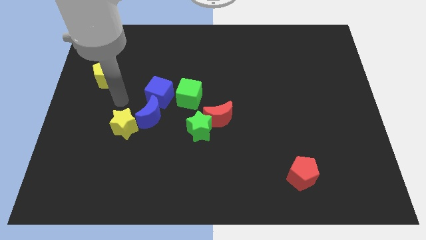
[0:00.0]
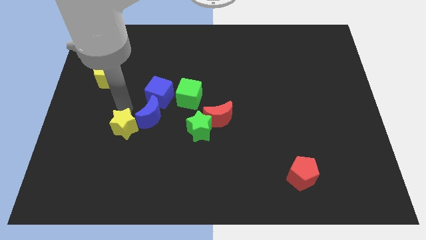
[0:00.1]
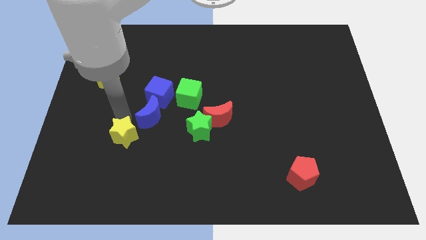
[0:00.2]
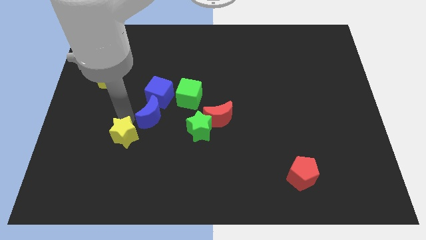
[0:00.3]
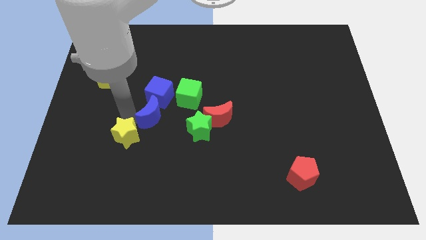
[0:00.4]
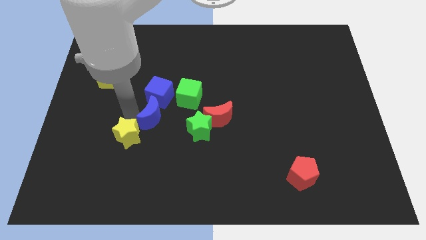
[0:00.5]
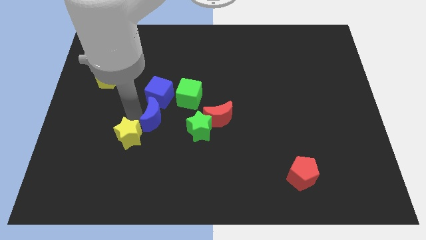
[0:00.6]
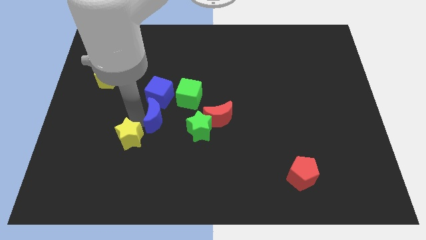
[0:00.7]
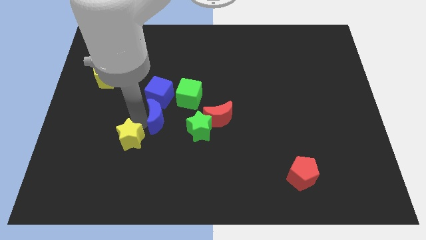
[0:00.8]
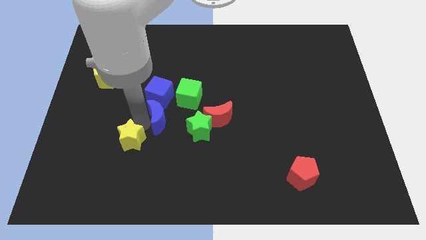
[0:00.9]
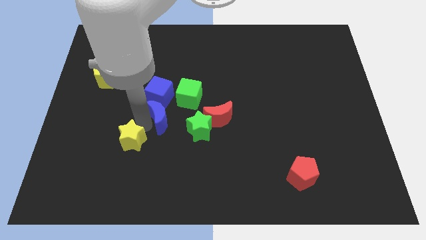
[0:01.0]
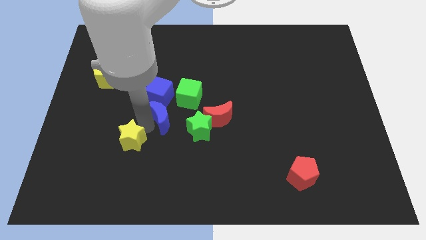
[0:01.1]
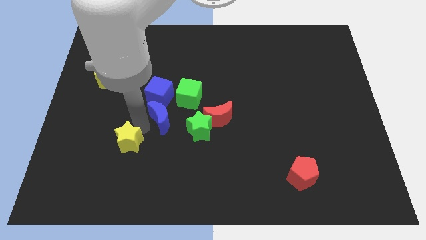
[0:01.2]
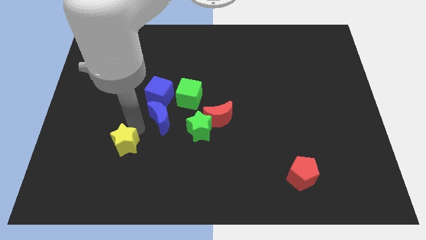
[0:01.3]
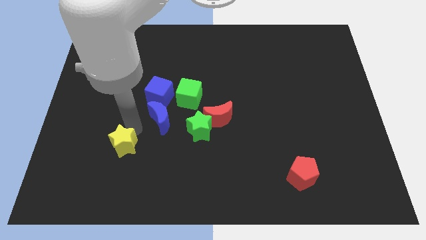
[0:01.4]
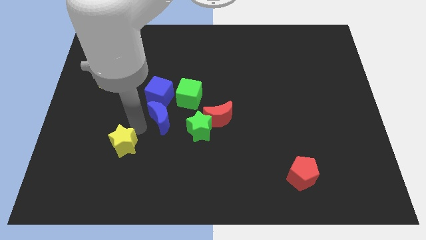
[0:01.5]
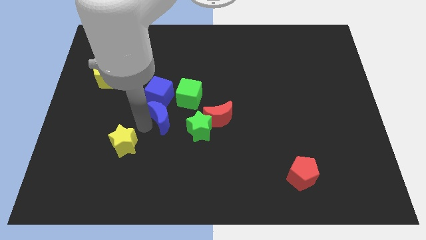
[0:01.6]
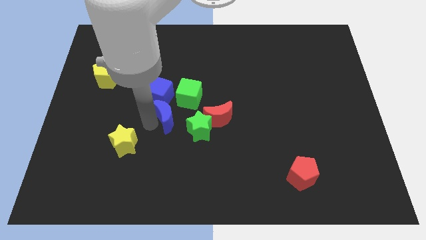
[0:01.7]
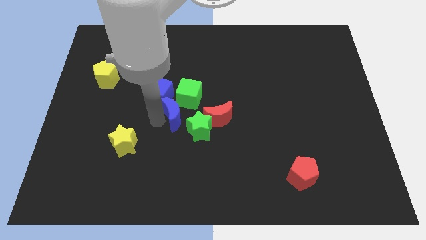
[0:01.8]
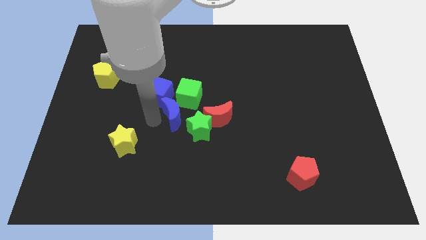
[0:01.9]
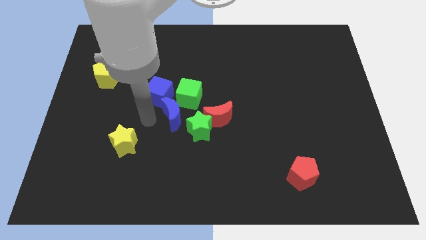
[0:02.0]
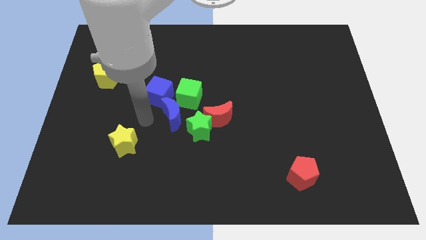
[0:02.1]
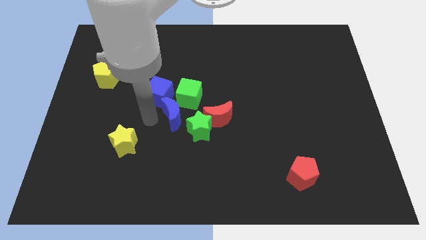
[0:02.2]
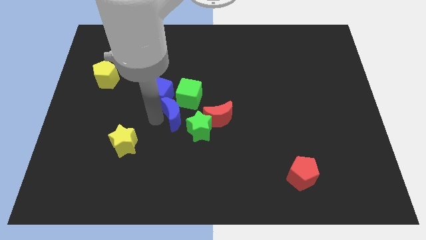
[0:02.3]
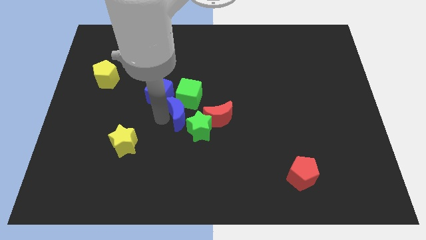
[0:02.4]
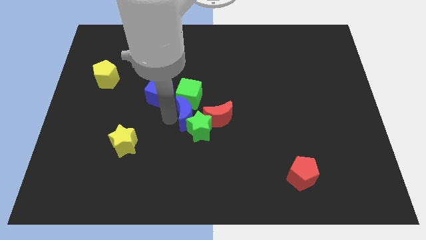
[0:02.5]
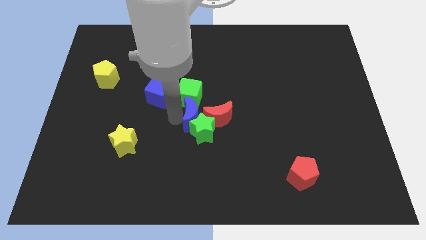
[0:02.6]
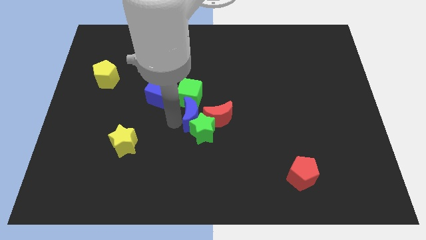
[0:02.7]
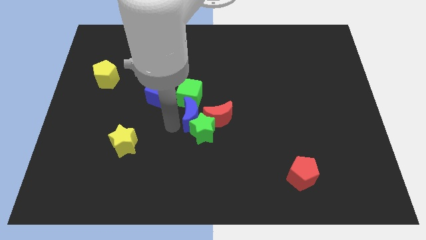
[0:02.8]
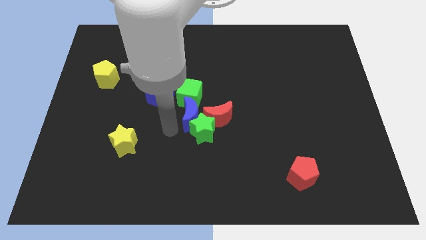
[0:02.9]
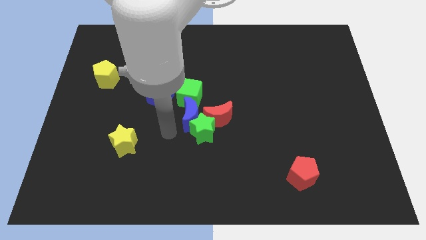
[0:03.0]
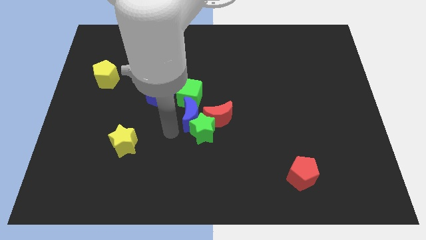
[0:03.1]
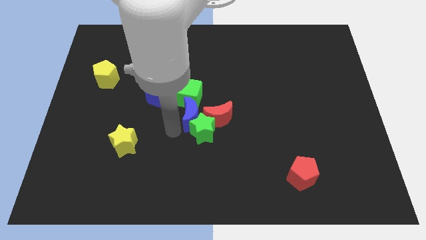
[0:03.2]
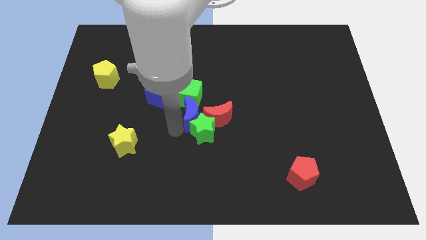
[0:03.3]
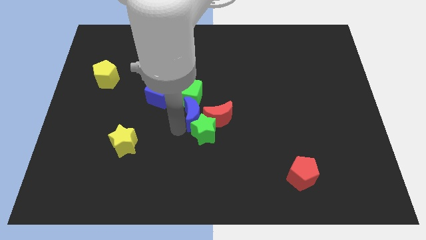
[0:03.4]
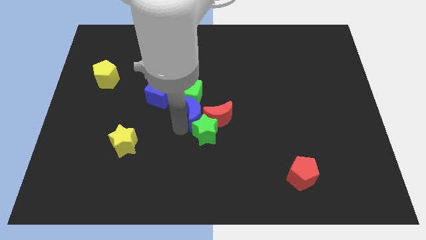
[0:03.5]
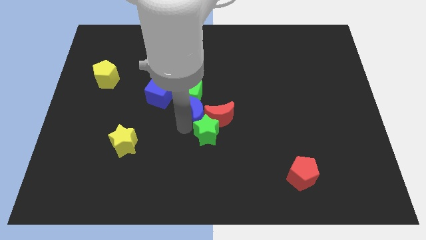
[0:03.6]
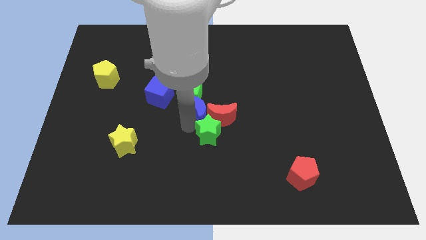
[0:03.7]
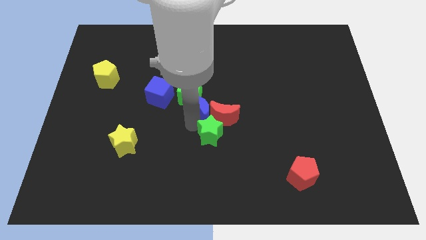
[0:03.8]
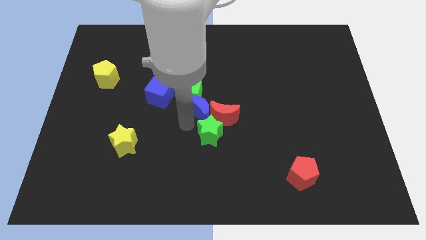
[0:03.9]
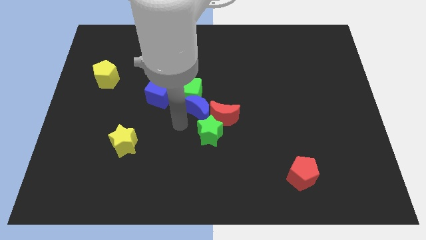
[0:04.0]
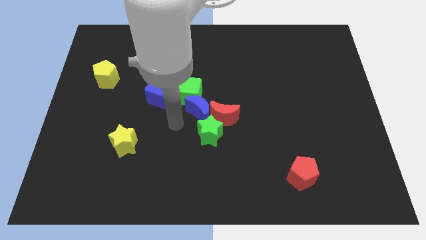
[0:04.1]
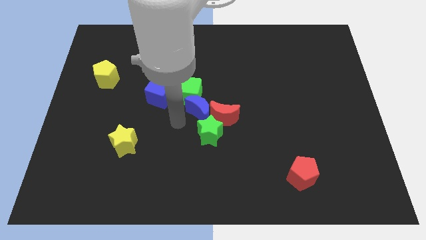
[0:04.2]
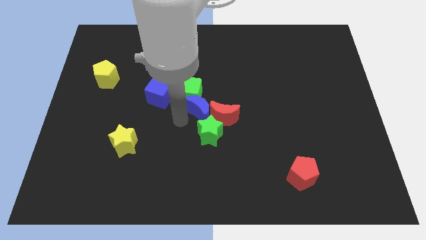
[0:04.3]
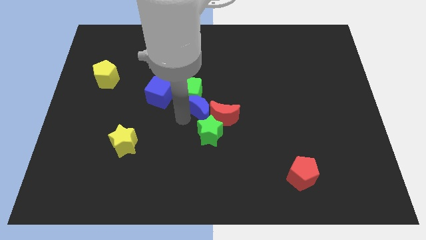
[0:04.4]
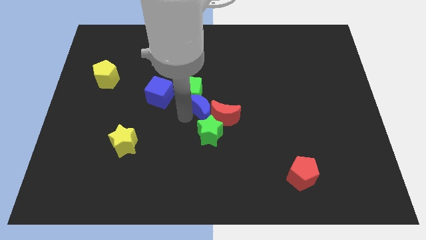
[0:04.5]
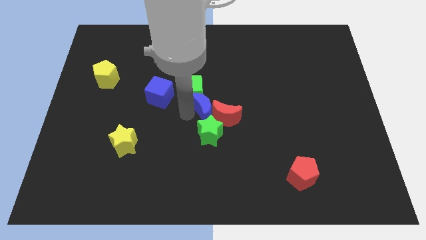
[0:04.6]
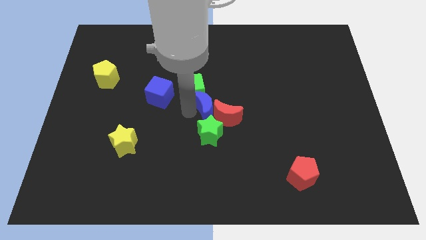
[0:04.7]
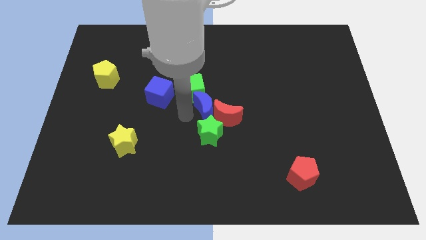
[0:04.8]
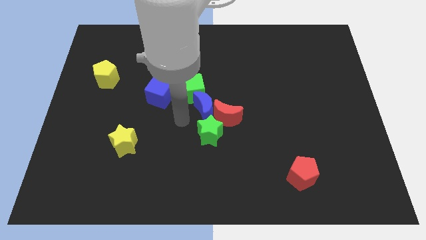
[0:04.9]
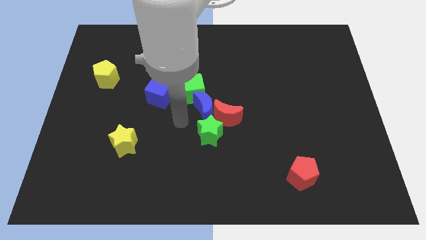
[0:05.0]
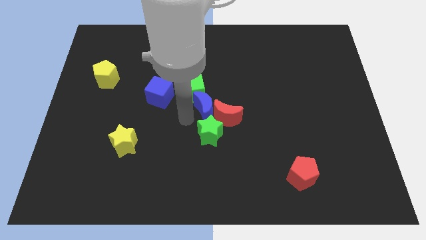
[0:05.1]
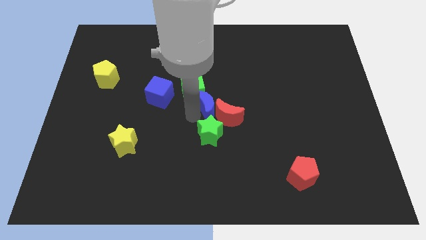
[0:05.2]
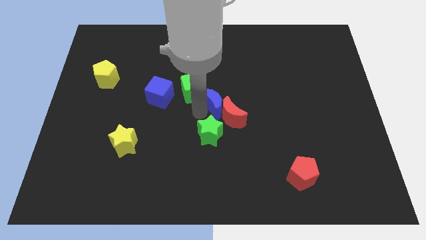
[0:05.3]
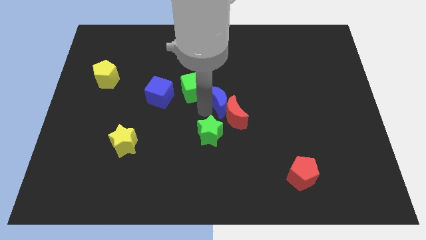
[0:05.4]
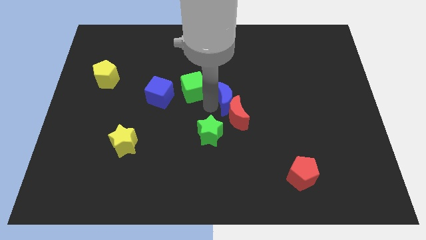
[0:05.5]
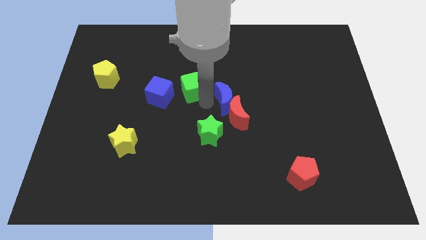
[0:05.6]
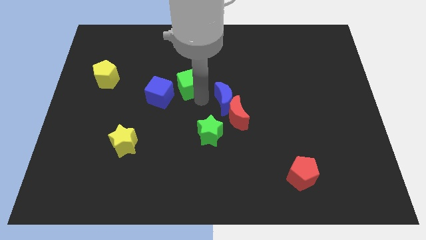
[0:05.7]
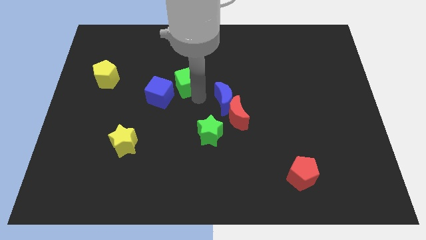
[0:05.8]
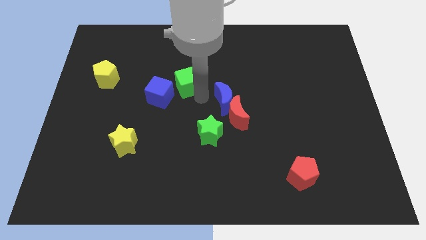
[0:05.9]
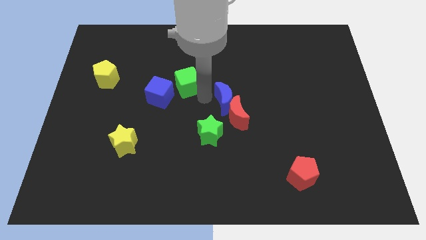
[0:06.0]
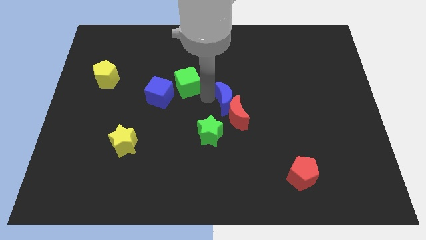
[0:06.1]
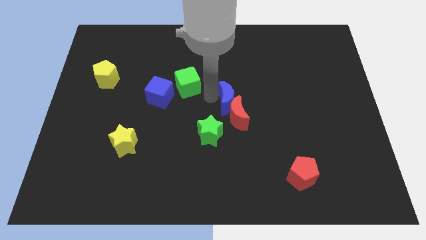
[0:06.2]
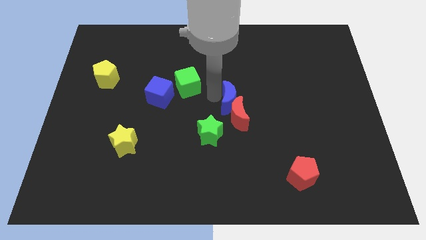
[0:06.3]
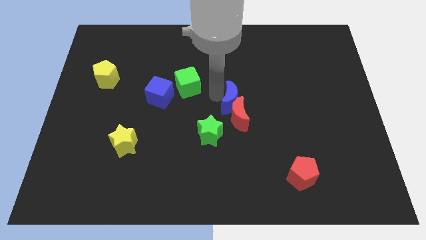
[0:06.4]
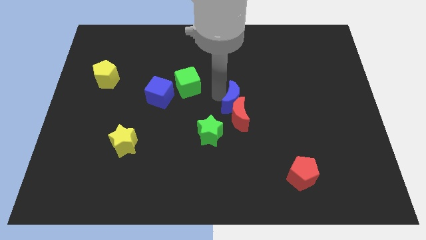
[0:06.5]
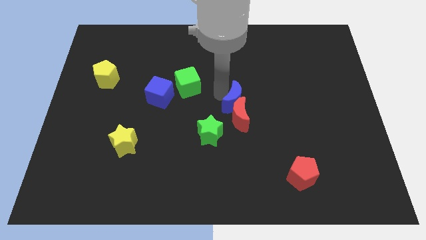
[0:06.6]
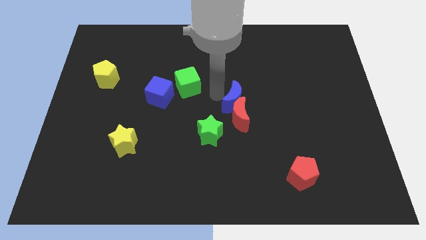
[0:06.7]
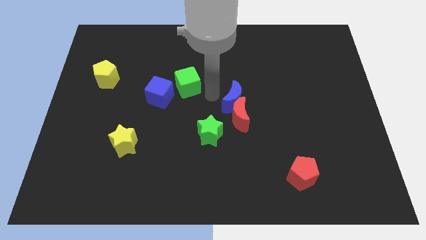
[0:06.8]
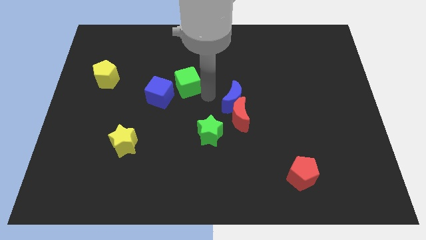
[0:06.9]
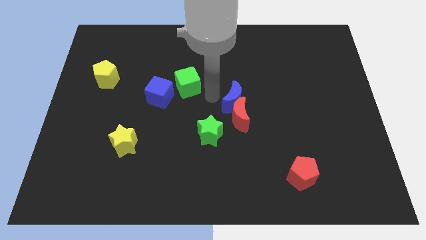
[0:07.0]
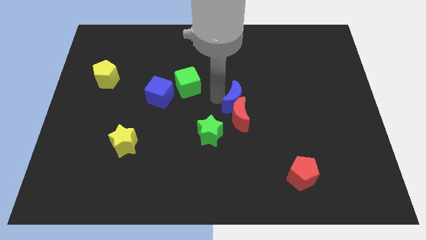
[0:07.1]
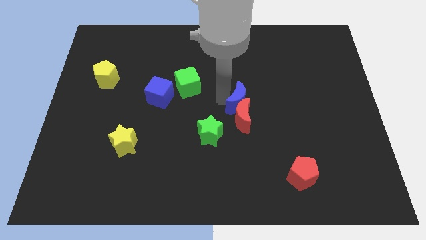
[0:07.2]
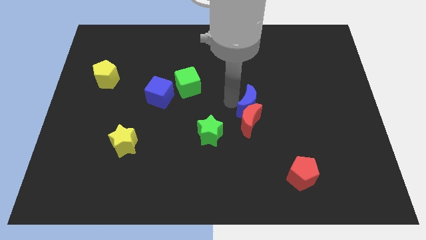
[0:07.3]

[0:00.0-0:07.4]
push the blue moon to the right

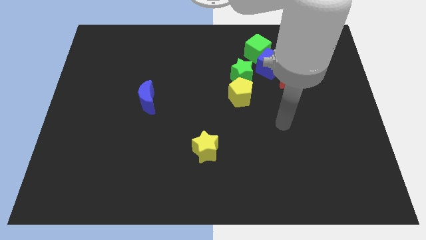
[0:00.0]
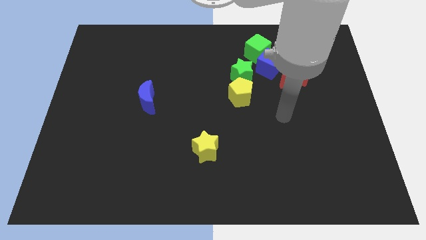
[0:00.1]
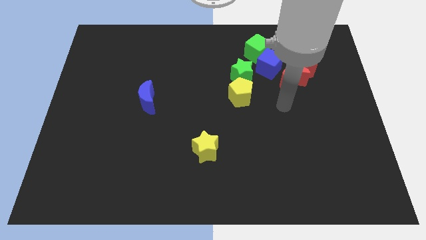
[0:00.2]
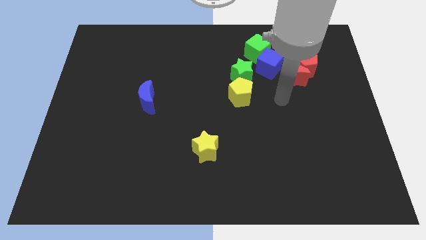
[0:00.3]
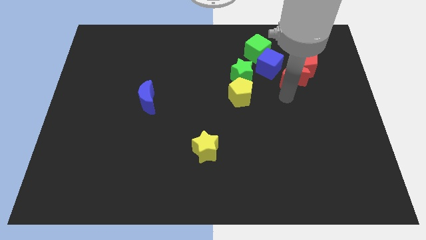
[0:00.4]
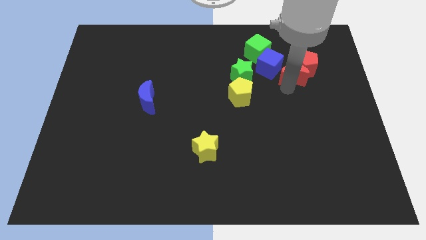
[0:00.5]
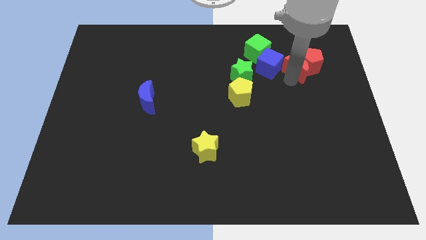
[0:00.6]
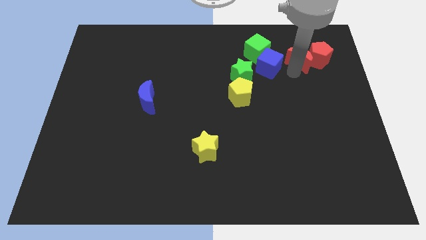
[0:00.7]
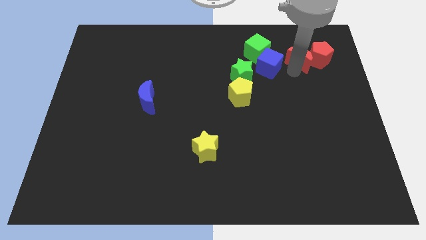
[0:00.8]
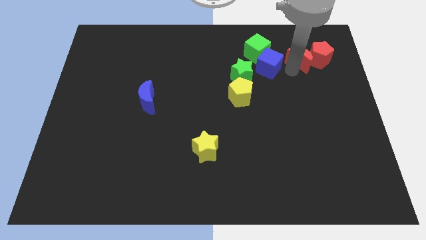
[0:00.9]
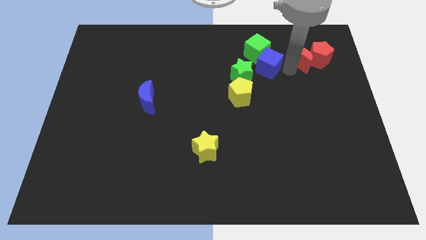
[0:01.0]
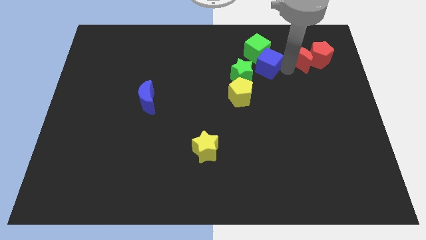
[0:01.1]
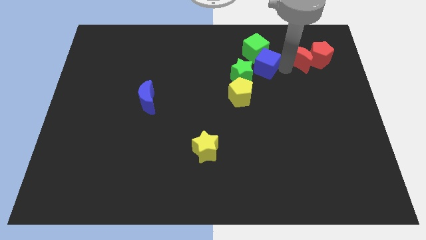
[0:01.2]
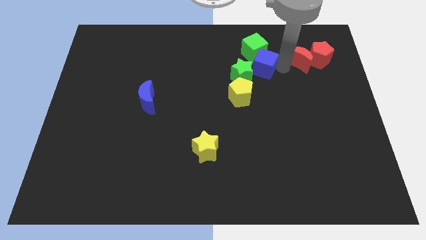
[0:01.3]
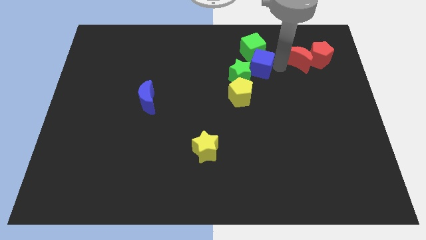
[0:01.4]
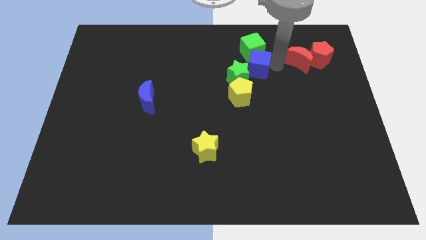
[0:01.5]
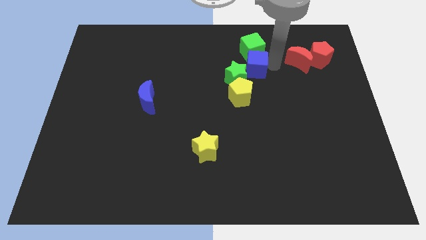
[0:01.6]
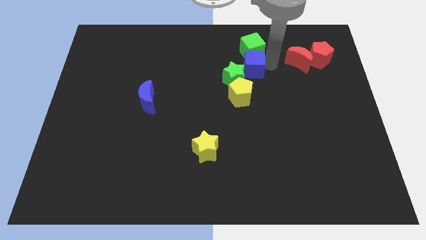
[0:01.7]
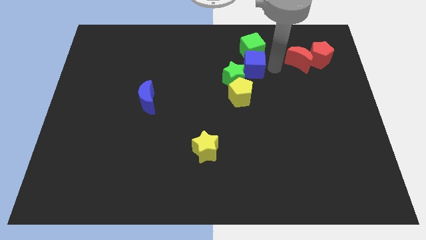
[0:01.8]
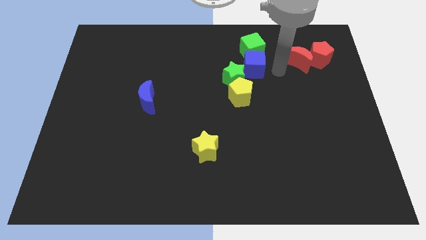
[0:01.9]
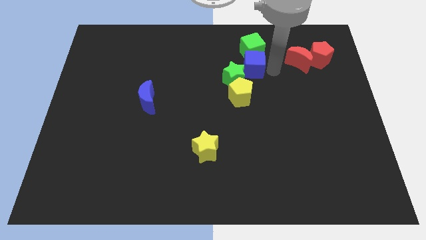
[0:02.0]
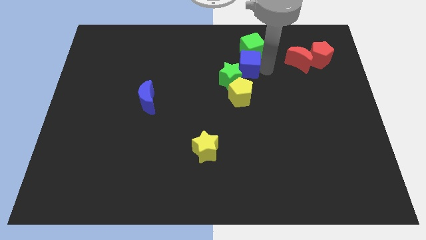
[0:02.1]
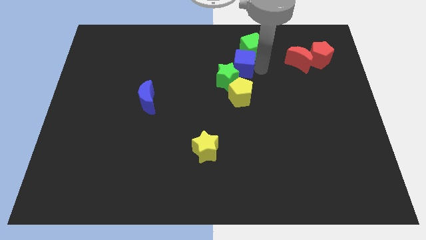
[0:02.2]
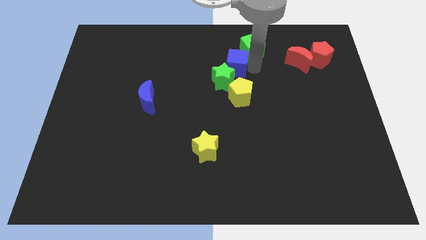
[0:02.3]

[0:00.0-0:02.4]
push the blue cube a little left
